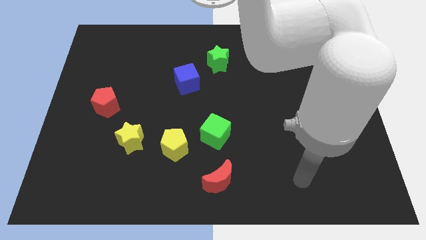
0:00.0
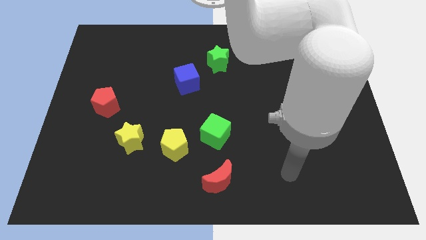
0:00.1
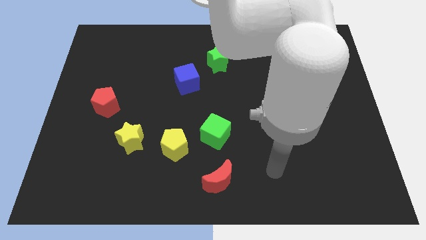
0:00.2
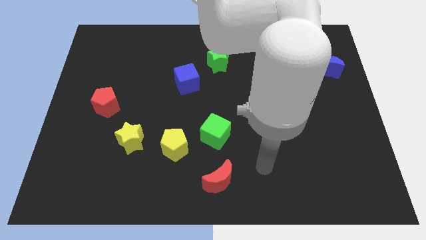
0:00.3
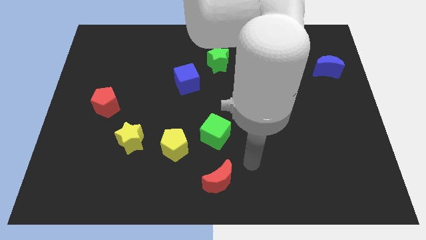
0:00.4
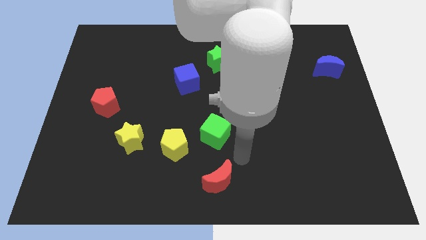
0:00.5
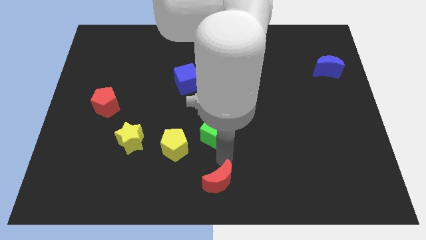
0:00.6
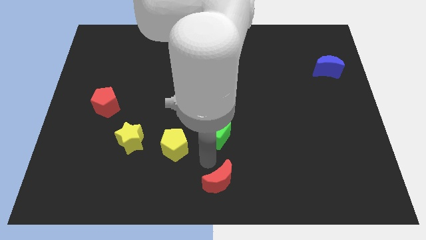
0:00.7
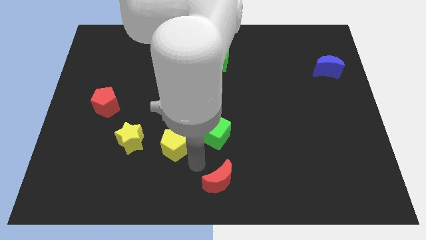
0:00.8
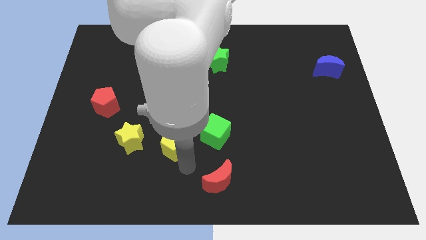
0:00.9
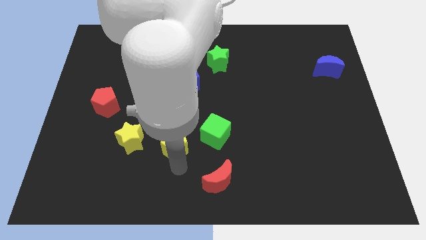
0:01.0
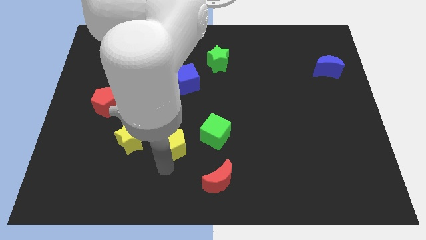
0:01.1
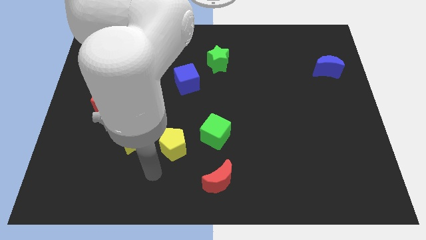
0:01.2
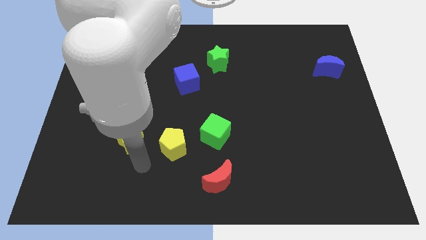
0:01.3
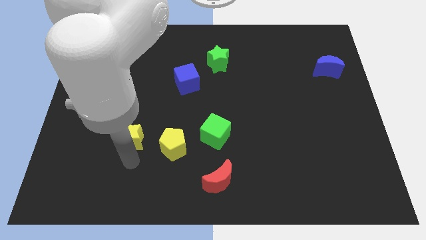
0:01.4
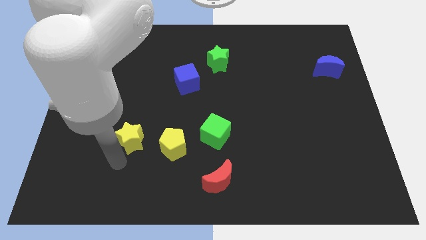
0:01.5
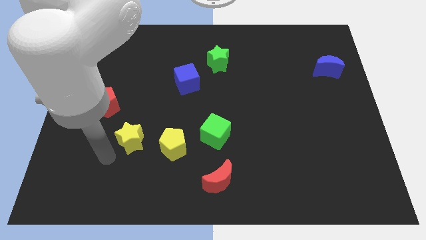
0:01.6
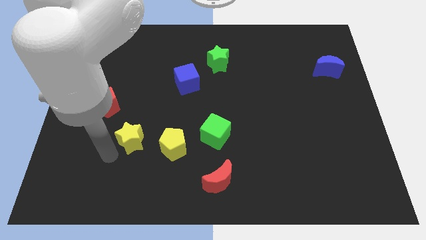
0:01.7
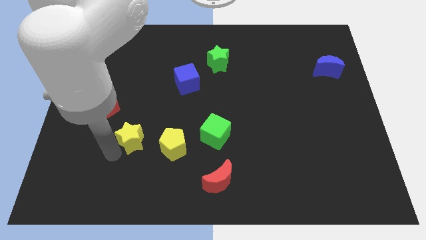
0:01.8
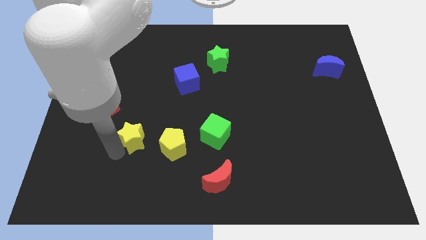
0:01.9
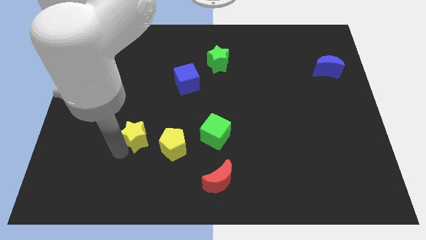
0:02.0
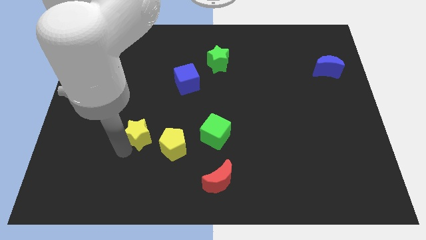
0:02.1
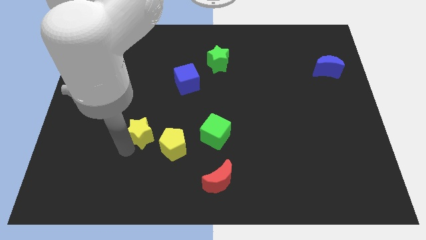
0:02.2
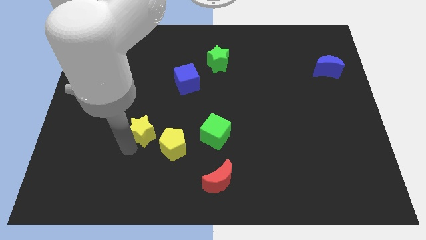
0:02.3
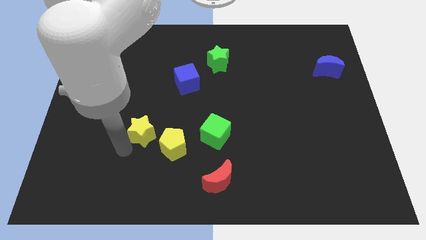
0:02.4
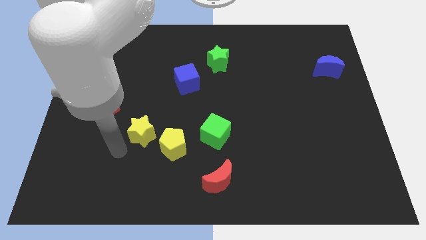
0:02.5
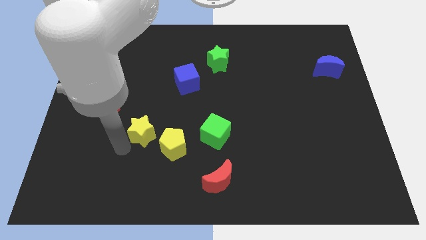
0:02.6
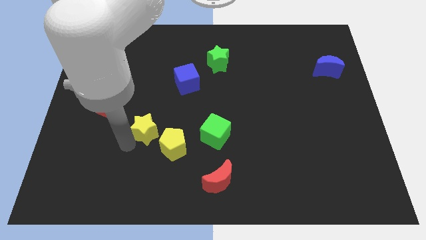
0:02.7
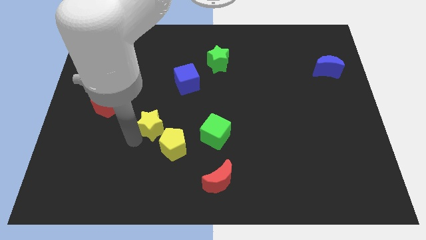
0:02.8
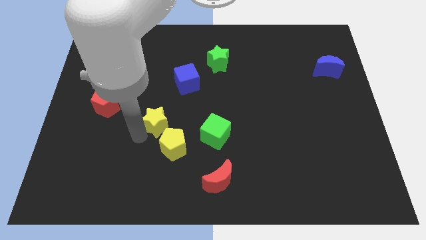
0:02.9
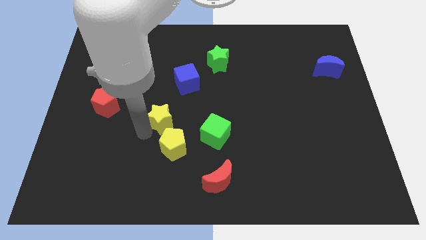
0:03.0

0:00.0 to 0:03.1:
push the yellow star up and right diagonally slightly

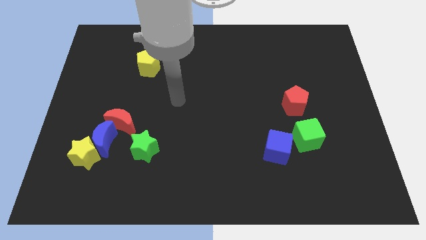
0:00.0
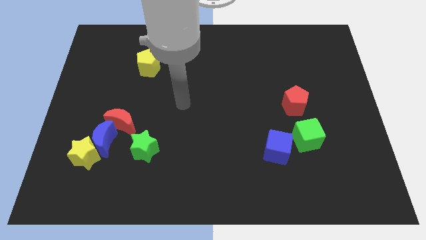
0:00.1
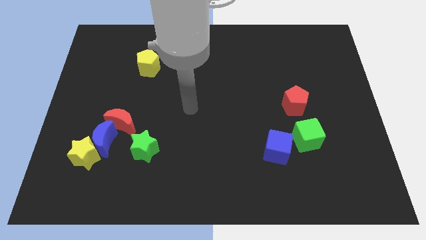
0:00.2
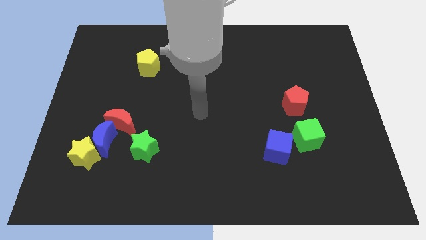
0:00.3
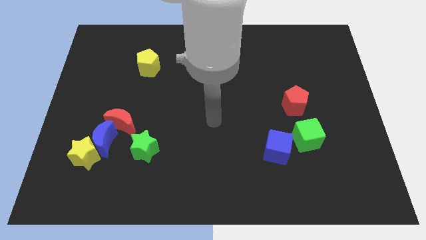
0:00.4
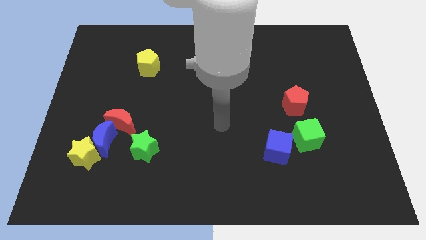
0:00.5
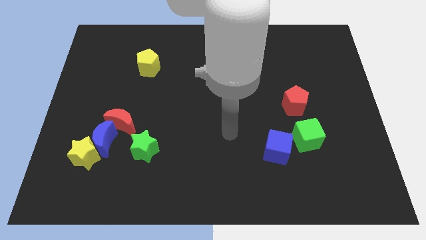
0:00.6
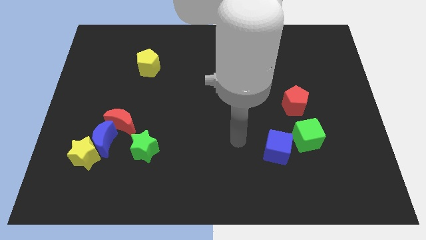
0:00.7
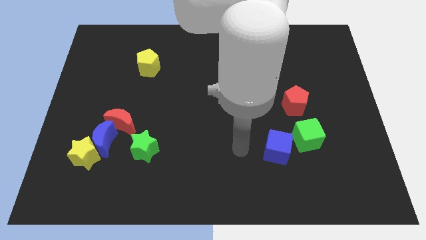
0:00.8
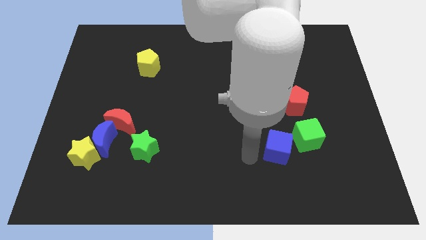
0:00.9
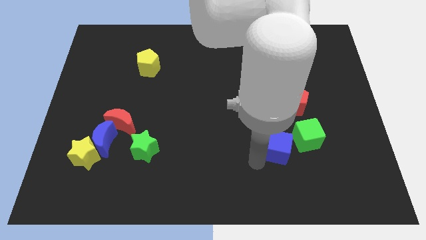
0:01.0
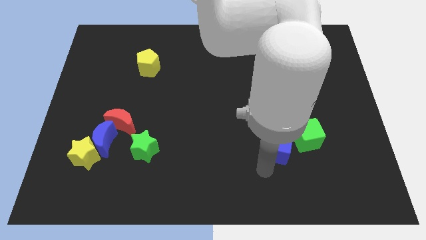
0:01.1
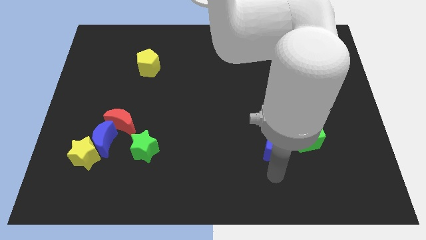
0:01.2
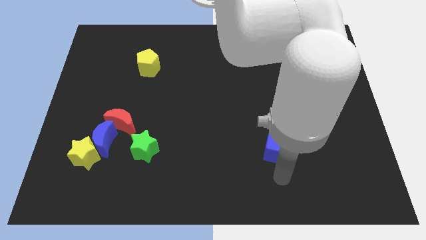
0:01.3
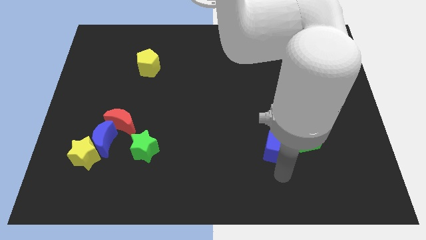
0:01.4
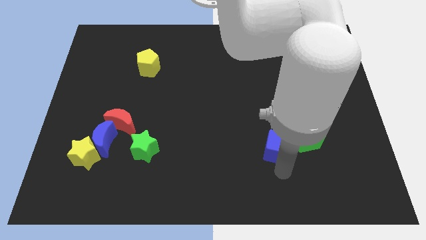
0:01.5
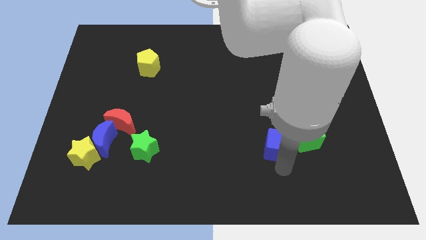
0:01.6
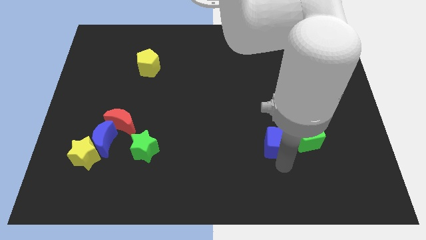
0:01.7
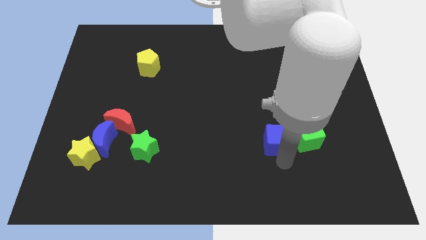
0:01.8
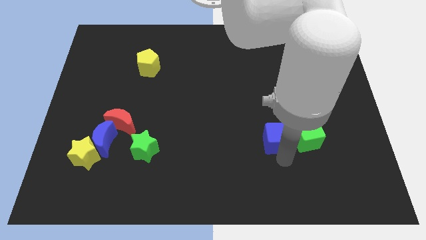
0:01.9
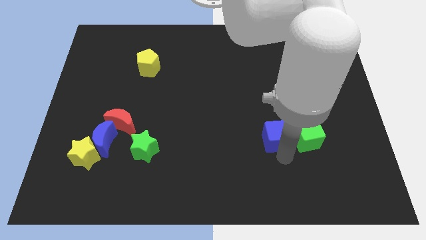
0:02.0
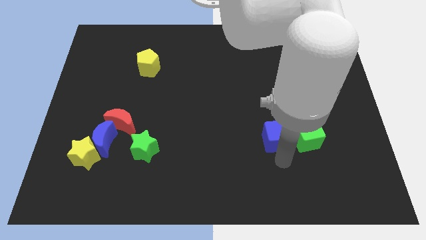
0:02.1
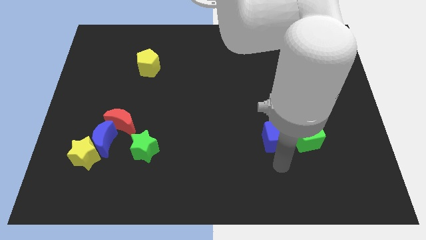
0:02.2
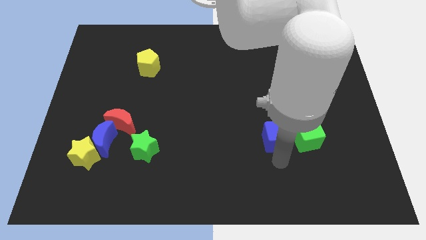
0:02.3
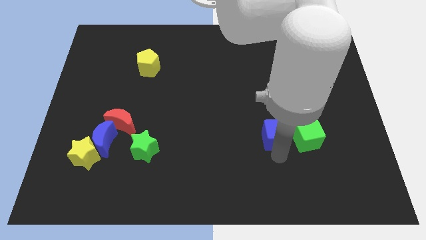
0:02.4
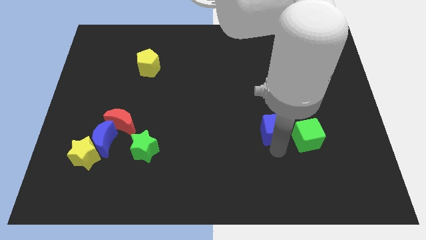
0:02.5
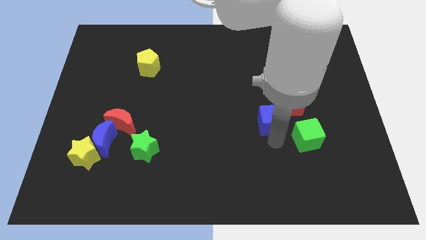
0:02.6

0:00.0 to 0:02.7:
slightly push the blue cube upwards

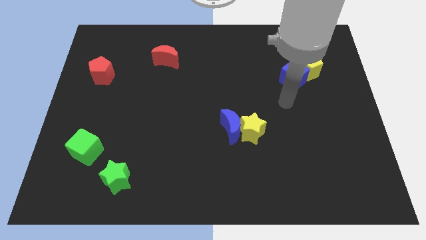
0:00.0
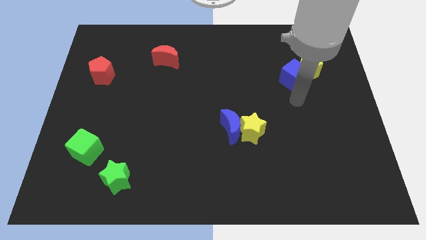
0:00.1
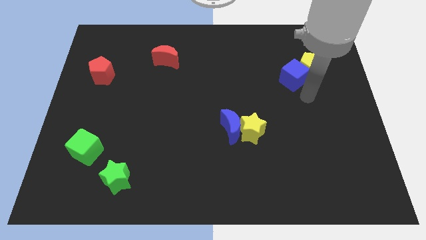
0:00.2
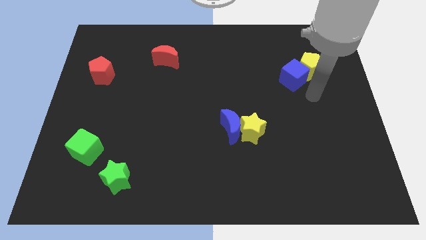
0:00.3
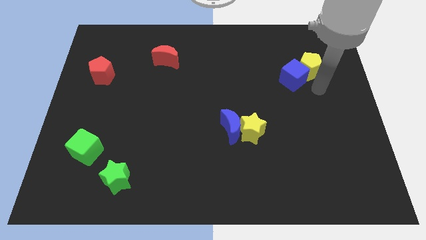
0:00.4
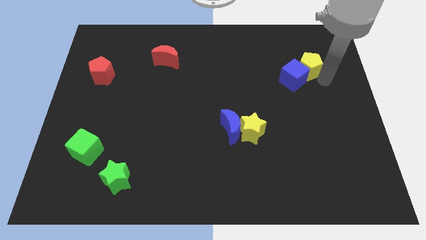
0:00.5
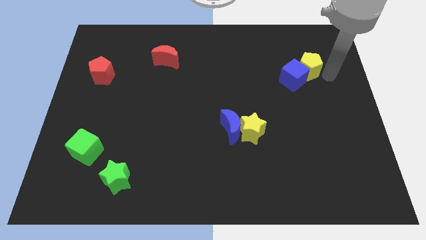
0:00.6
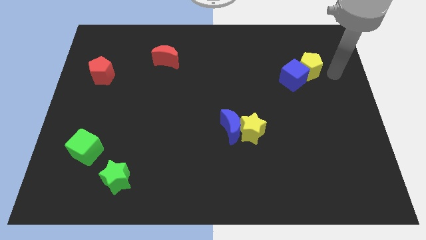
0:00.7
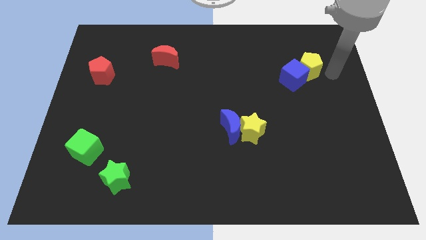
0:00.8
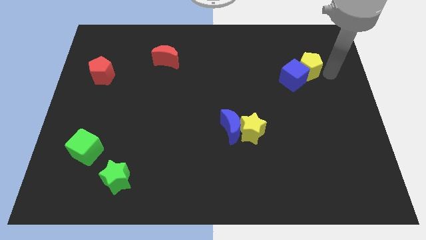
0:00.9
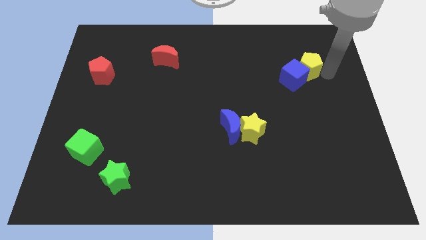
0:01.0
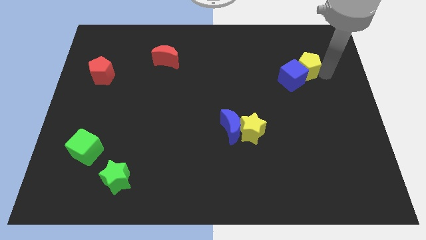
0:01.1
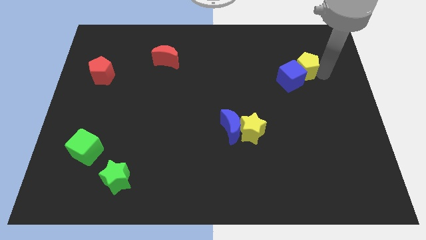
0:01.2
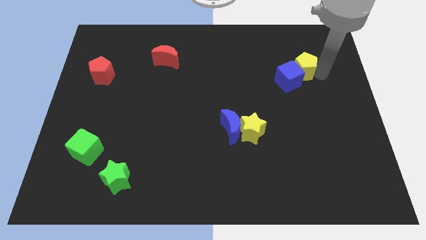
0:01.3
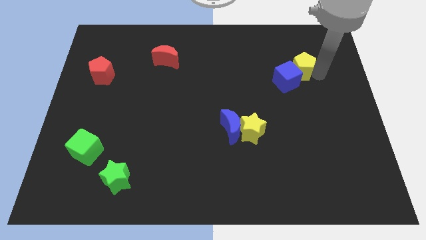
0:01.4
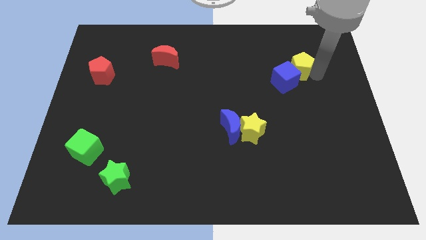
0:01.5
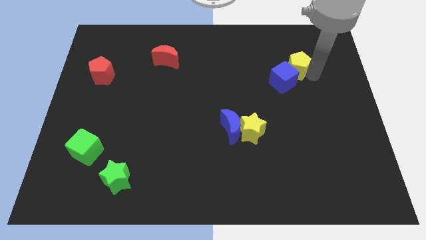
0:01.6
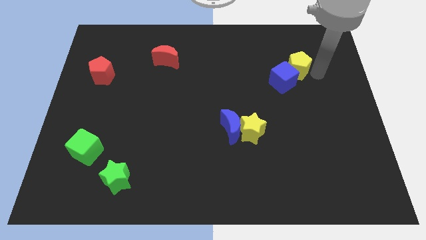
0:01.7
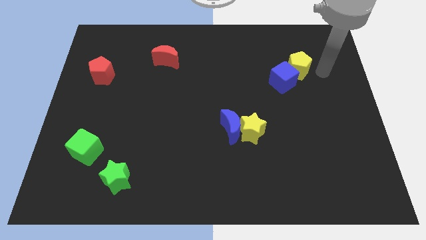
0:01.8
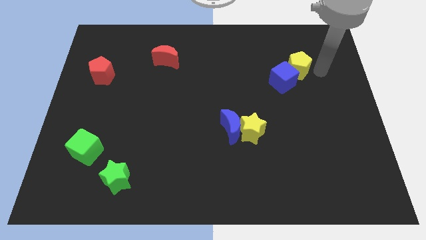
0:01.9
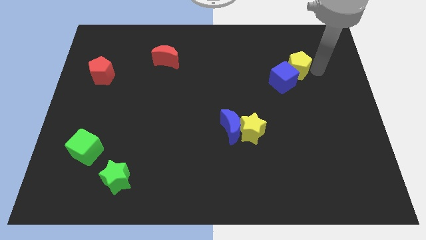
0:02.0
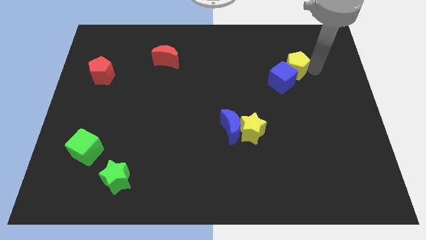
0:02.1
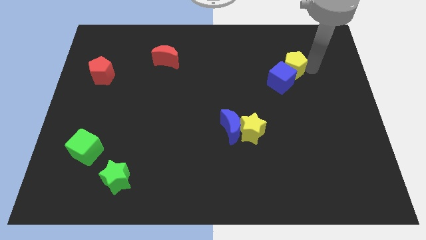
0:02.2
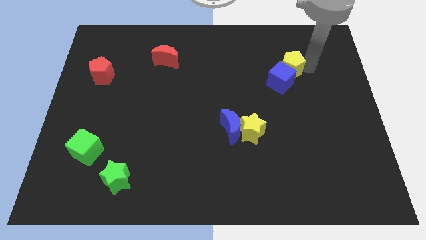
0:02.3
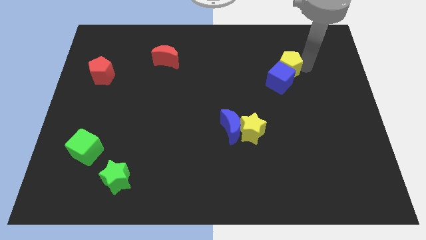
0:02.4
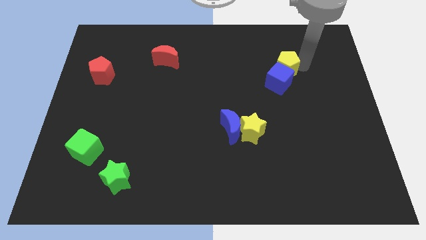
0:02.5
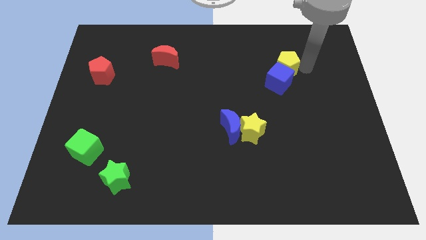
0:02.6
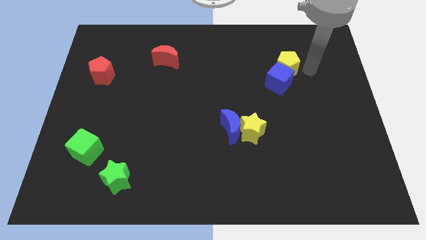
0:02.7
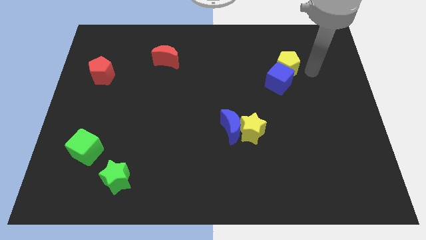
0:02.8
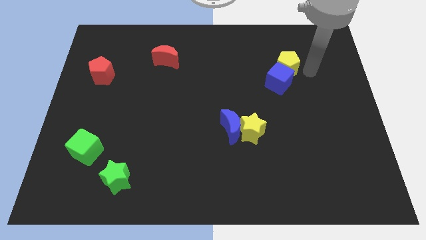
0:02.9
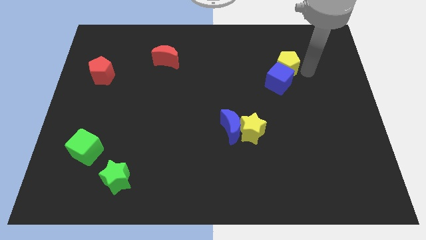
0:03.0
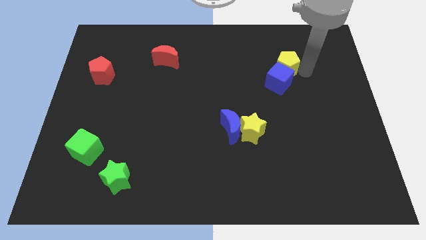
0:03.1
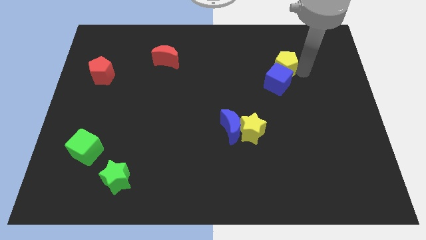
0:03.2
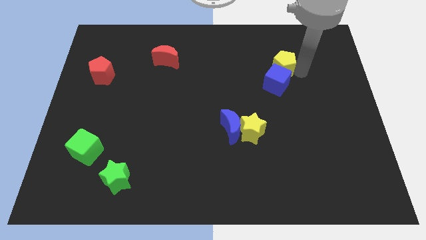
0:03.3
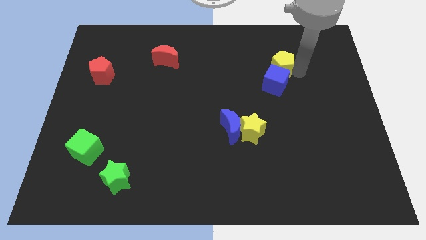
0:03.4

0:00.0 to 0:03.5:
move the yellow pentagon left a little bit
